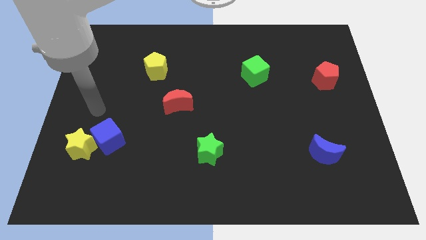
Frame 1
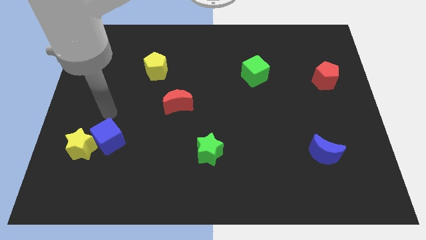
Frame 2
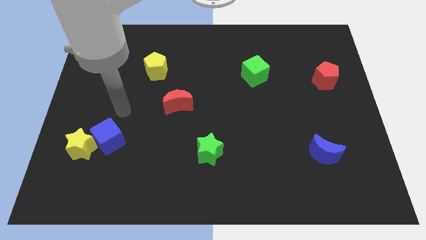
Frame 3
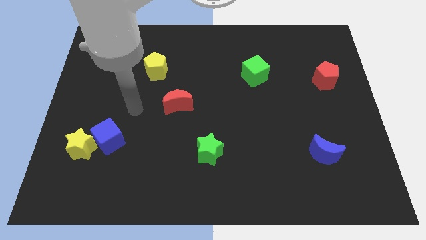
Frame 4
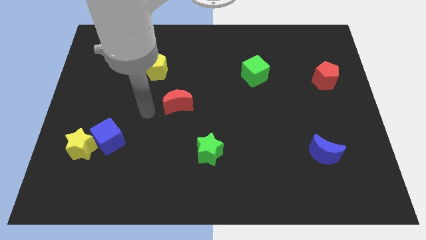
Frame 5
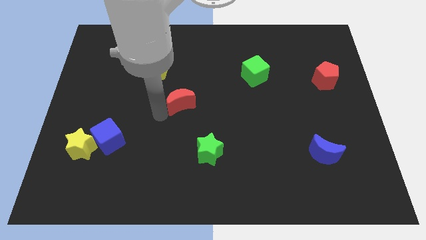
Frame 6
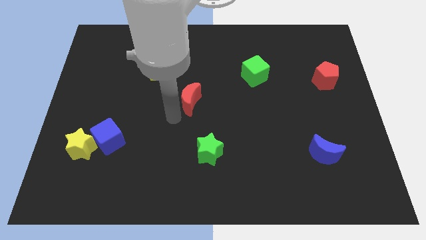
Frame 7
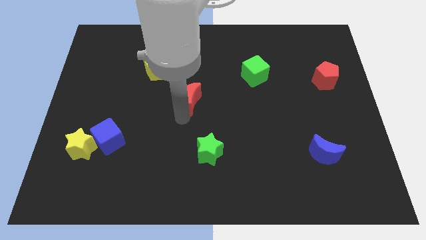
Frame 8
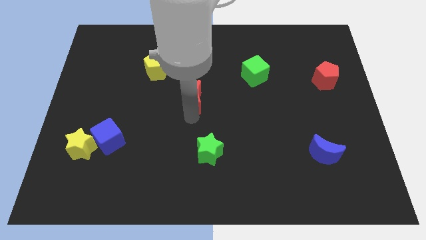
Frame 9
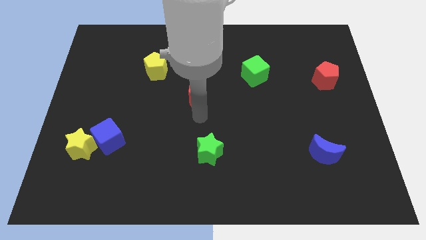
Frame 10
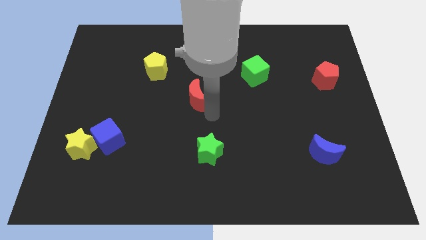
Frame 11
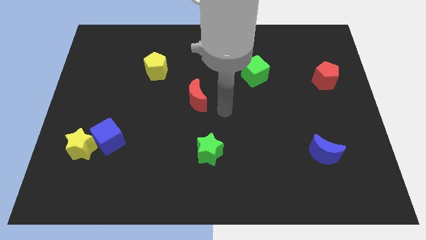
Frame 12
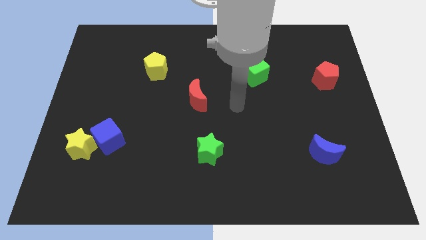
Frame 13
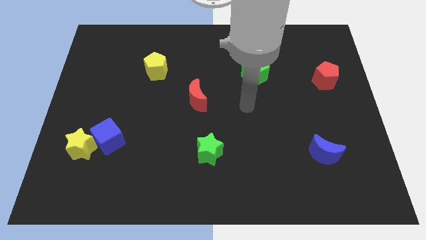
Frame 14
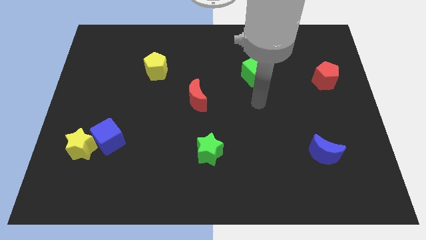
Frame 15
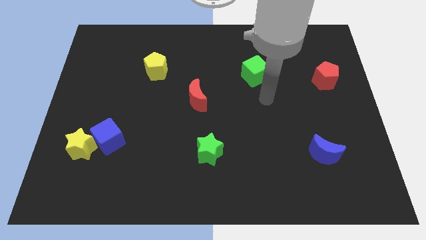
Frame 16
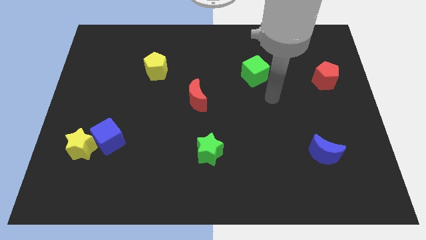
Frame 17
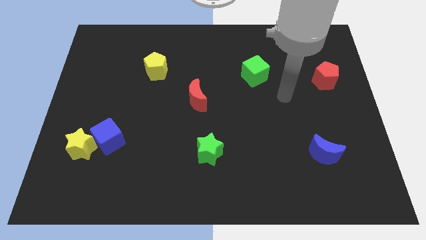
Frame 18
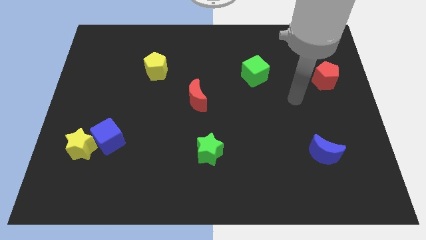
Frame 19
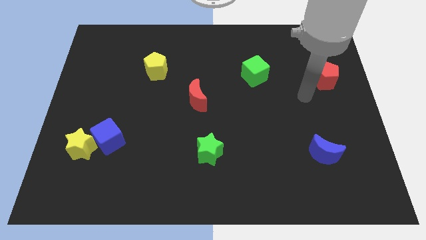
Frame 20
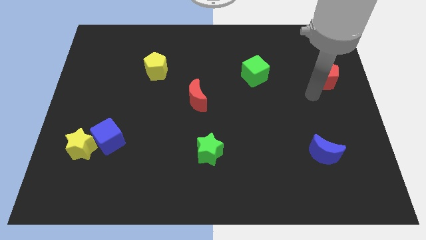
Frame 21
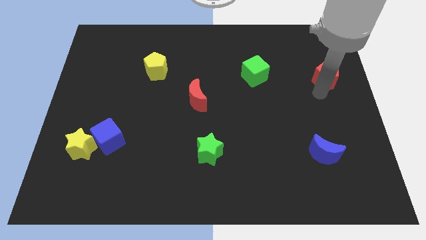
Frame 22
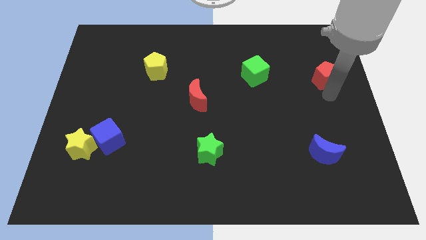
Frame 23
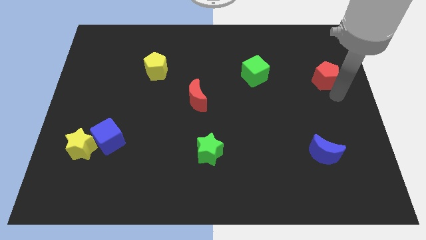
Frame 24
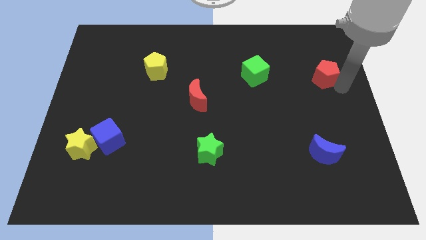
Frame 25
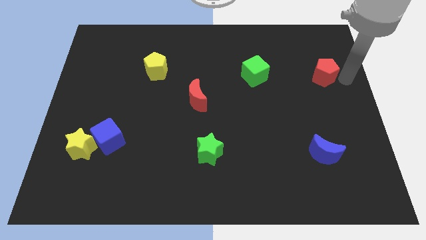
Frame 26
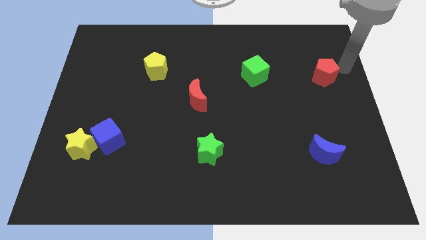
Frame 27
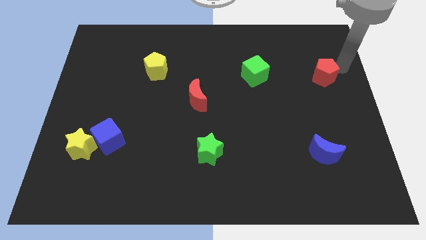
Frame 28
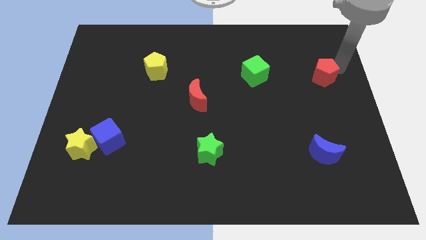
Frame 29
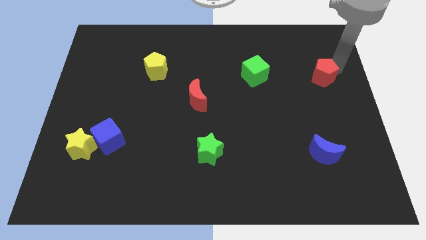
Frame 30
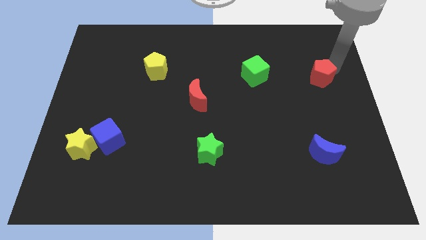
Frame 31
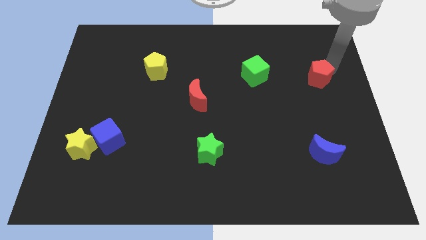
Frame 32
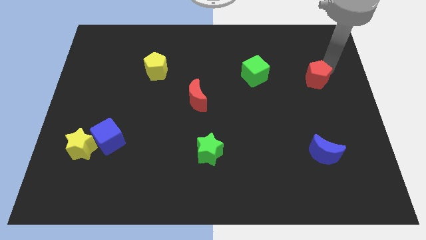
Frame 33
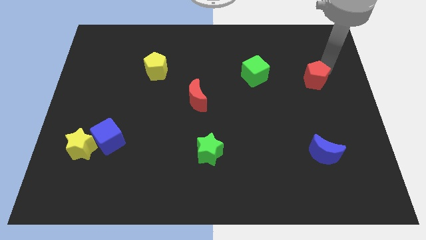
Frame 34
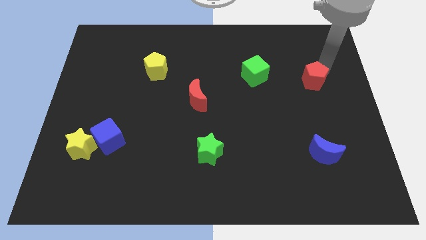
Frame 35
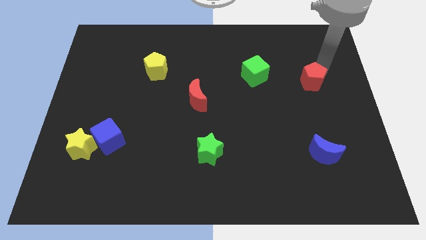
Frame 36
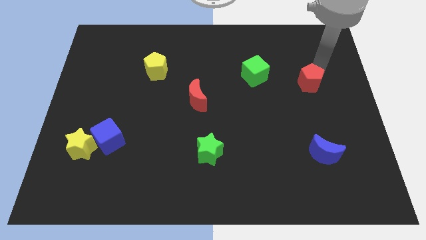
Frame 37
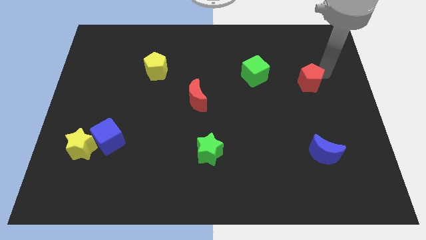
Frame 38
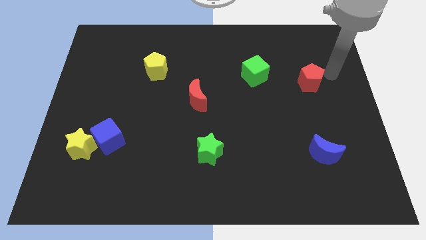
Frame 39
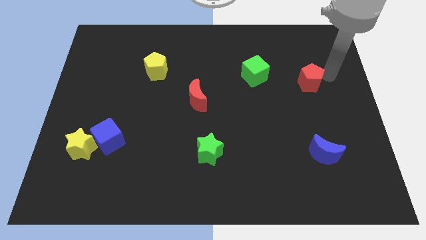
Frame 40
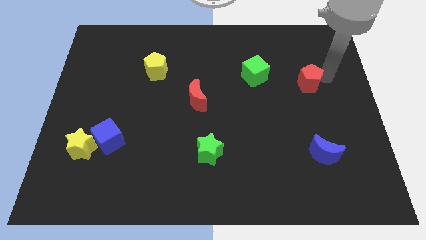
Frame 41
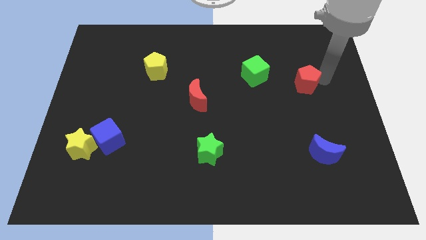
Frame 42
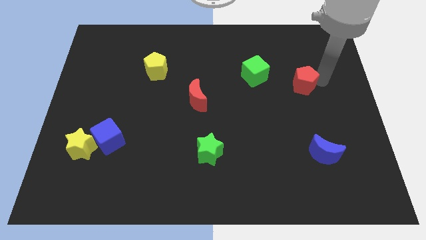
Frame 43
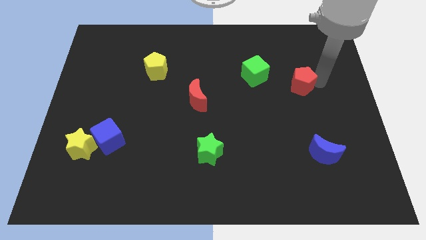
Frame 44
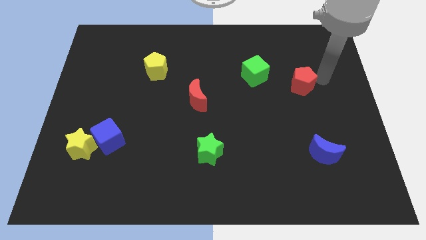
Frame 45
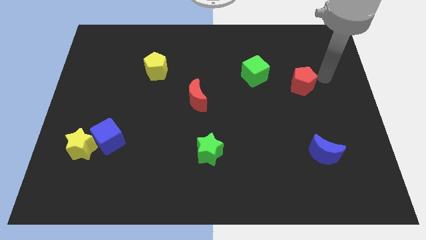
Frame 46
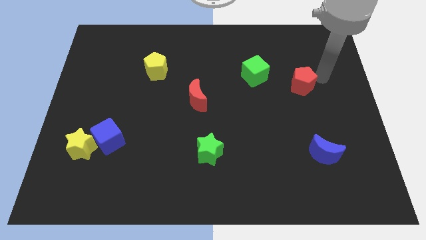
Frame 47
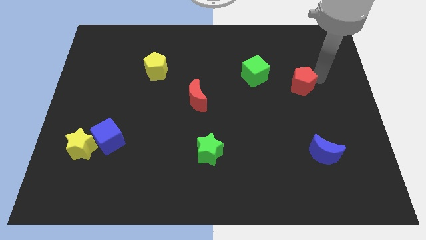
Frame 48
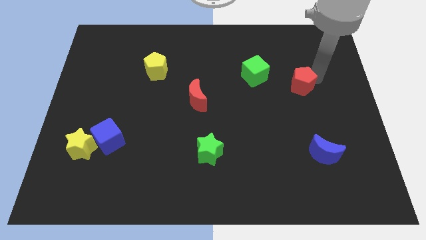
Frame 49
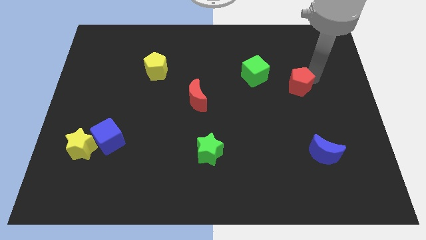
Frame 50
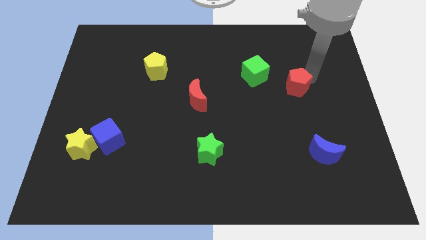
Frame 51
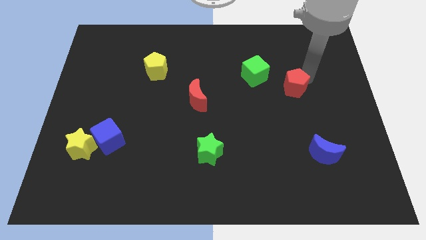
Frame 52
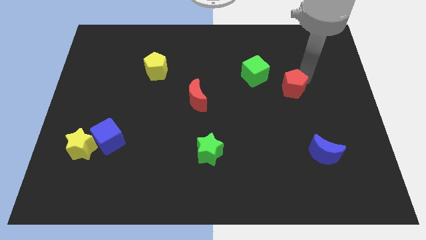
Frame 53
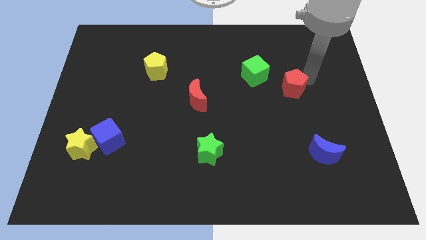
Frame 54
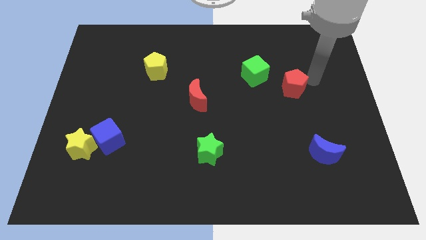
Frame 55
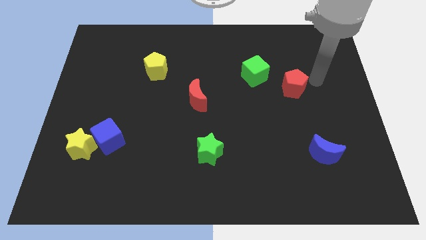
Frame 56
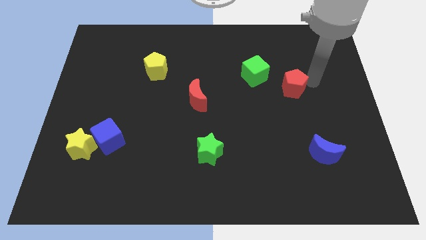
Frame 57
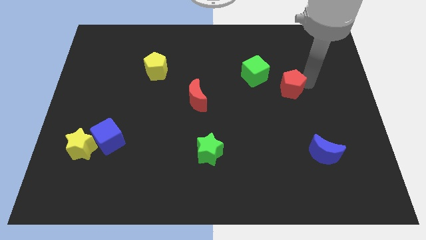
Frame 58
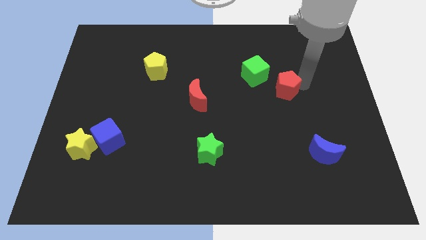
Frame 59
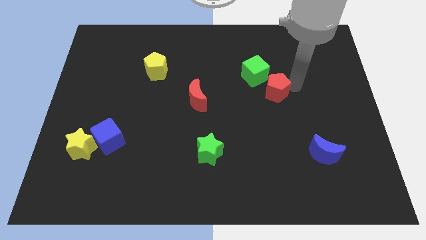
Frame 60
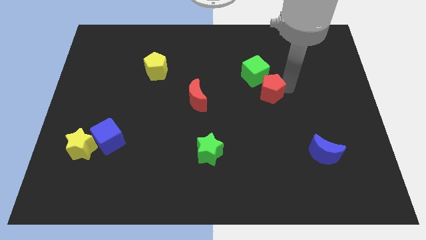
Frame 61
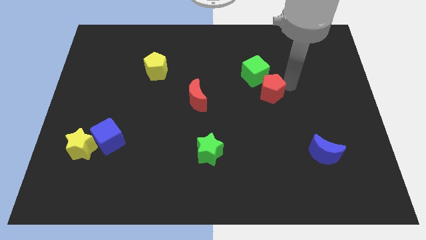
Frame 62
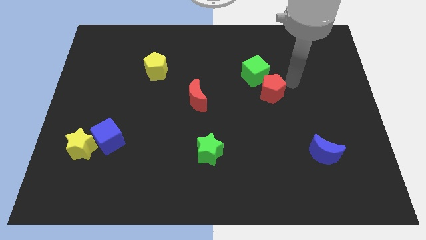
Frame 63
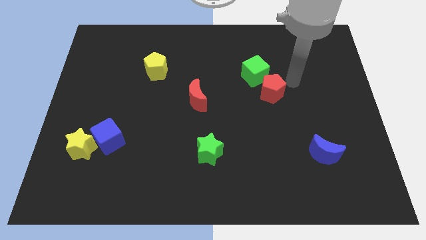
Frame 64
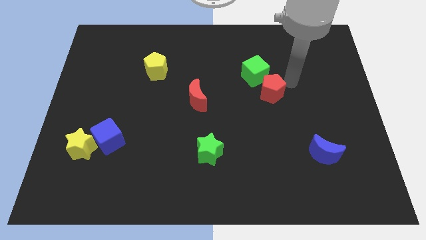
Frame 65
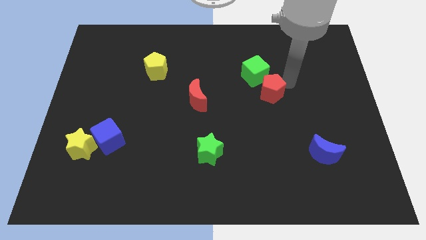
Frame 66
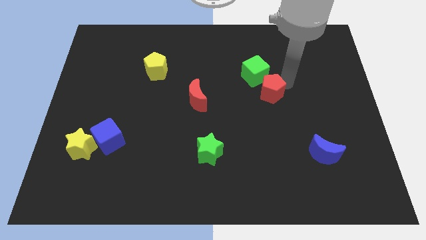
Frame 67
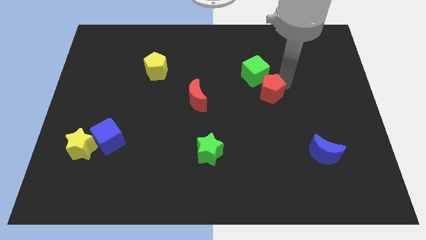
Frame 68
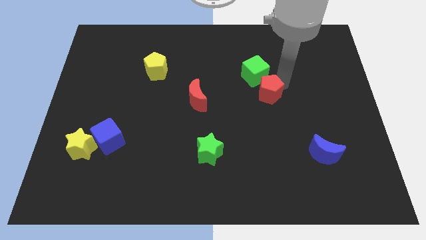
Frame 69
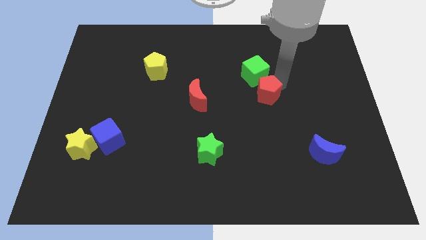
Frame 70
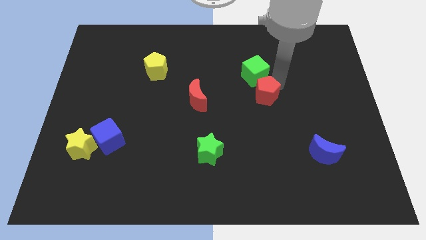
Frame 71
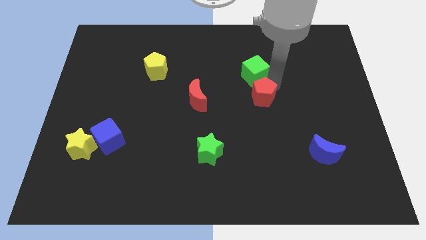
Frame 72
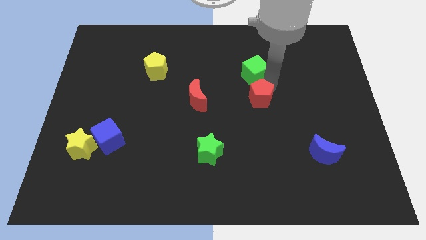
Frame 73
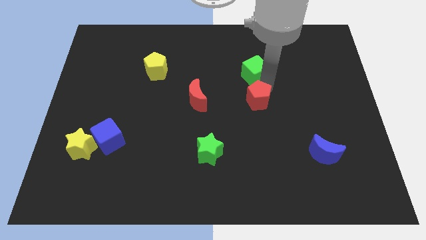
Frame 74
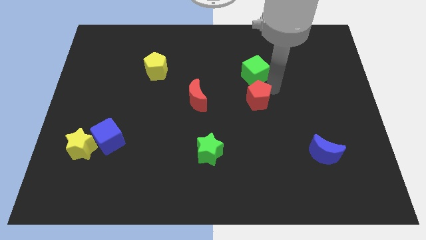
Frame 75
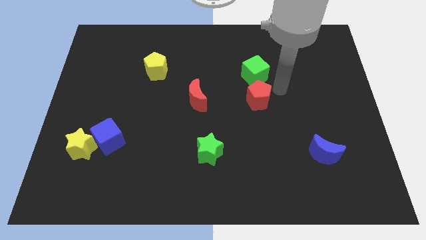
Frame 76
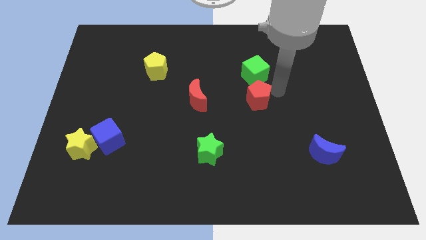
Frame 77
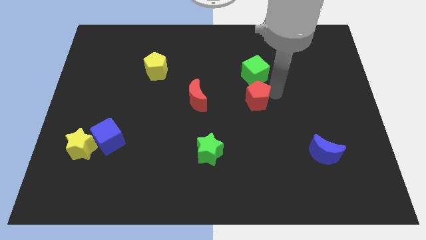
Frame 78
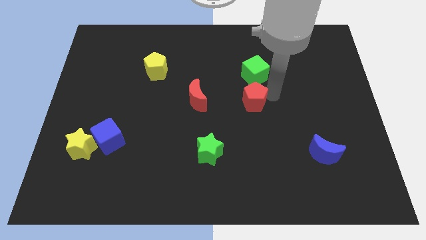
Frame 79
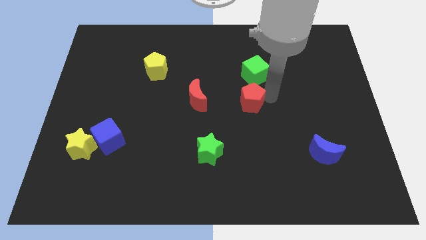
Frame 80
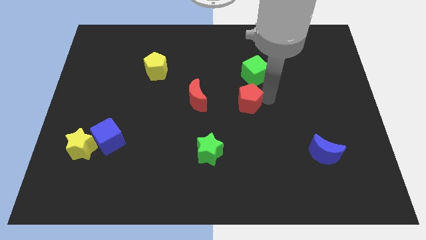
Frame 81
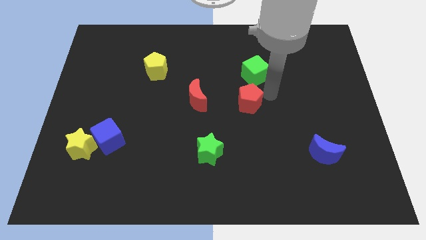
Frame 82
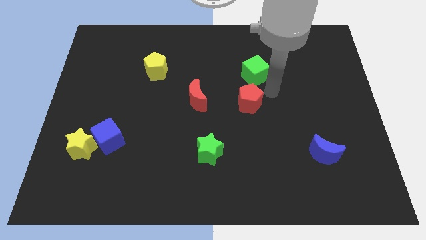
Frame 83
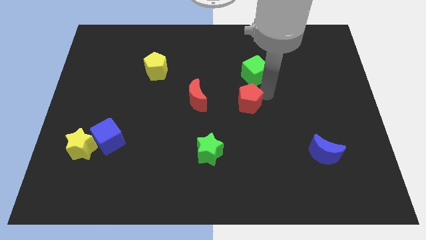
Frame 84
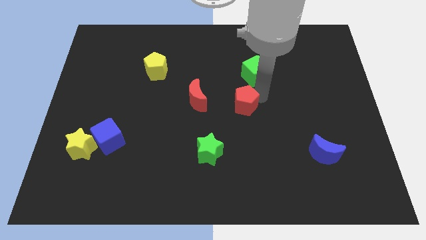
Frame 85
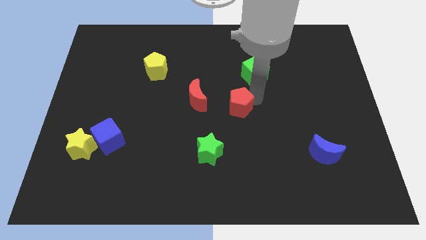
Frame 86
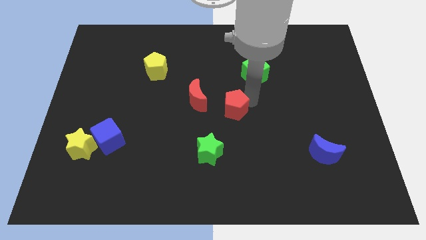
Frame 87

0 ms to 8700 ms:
put the red pentagon to the bottom right of the red moon
